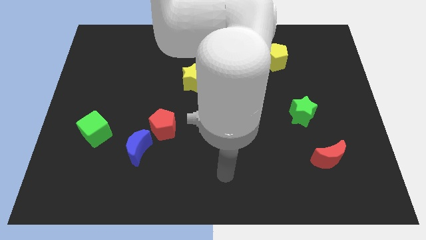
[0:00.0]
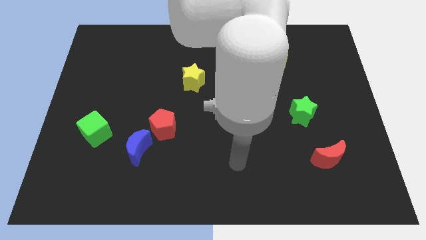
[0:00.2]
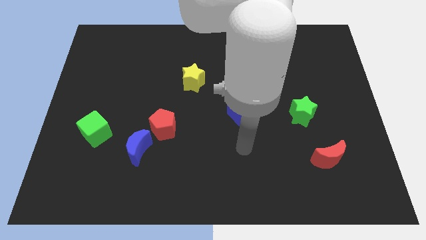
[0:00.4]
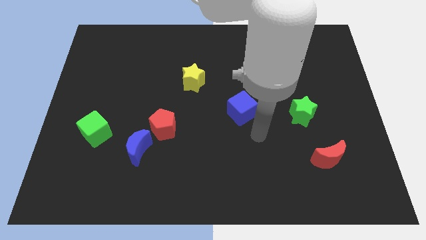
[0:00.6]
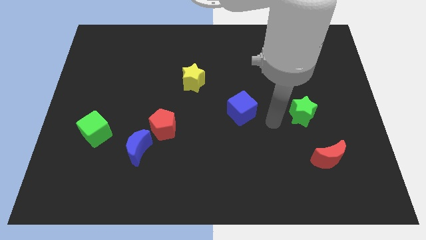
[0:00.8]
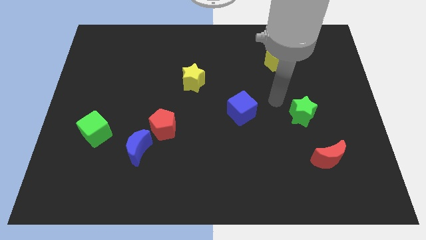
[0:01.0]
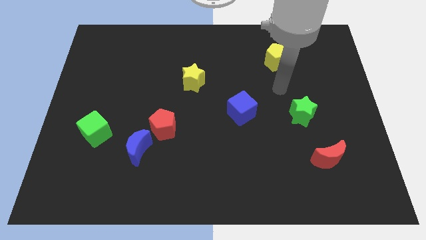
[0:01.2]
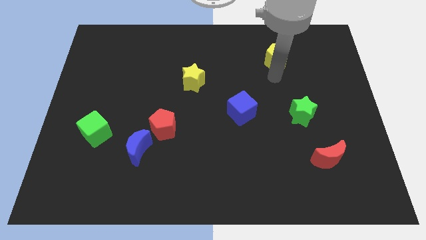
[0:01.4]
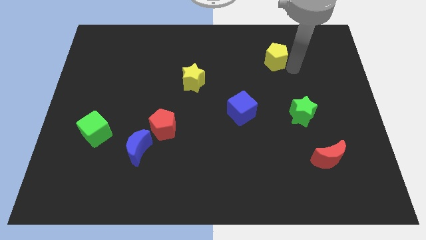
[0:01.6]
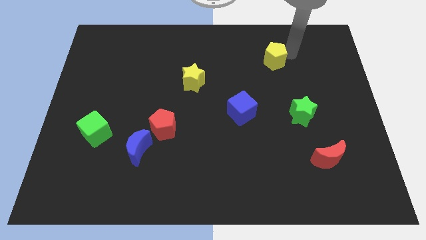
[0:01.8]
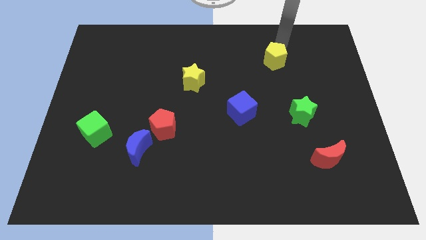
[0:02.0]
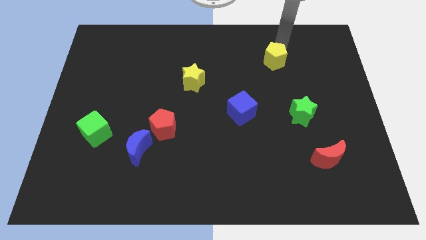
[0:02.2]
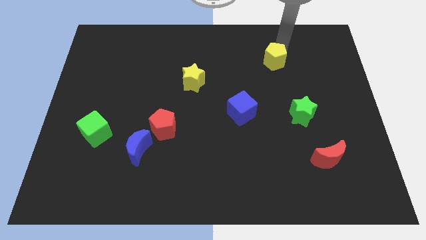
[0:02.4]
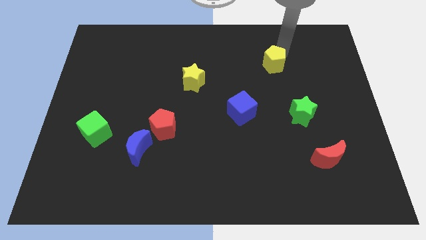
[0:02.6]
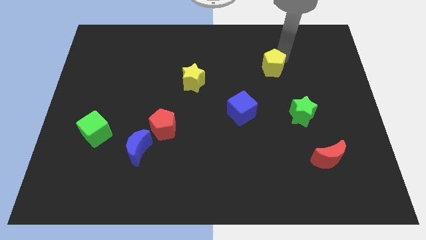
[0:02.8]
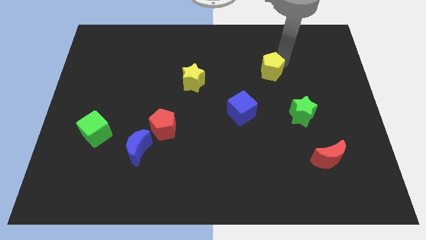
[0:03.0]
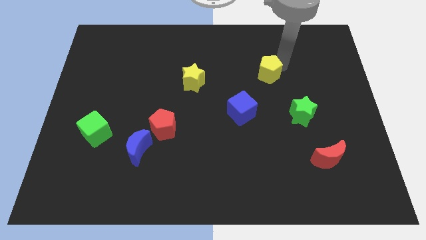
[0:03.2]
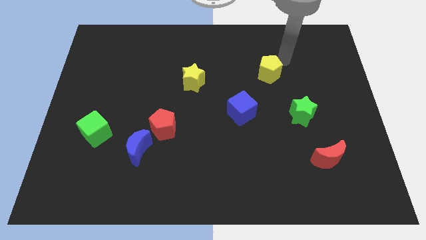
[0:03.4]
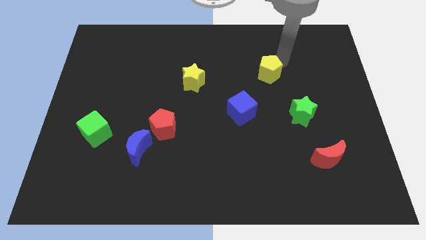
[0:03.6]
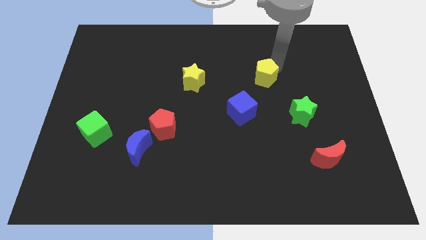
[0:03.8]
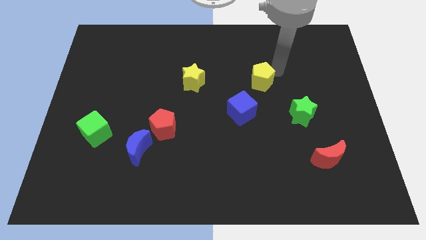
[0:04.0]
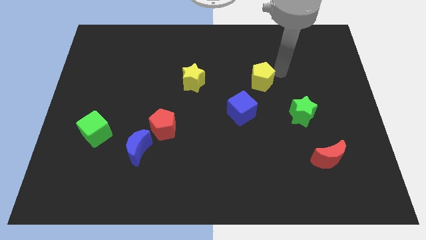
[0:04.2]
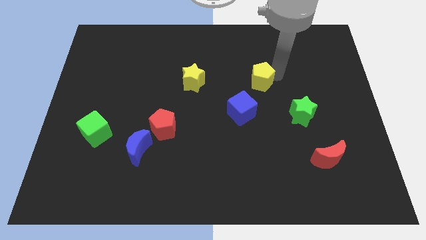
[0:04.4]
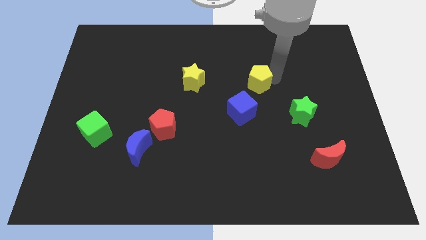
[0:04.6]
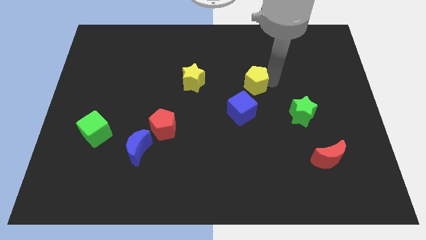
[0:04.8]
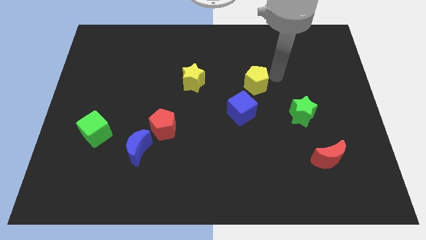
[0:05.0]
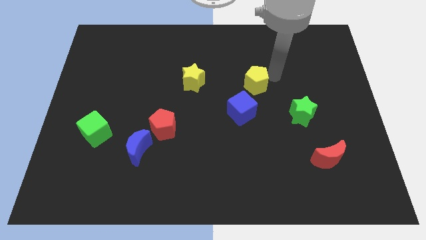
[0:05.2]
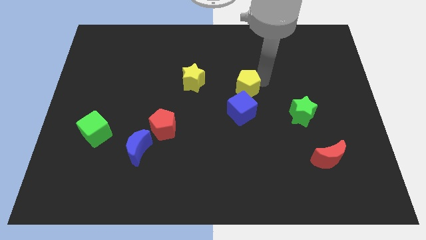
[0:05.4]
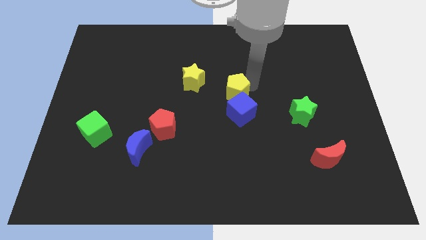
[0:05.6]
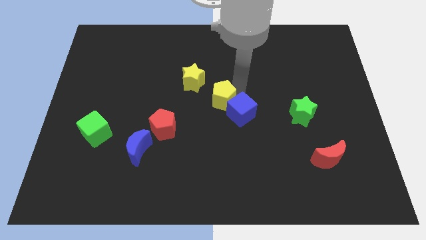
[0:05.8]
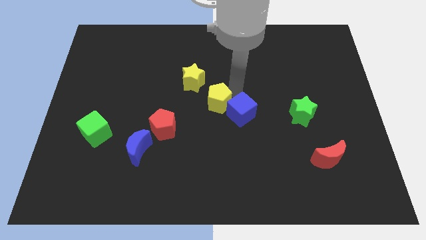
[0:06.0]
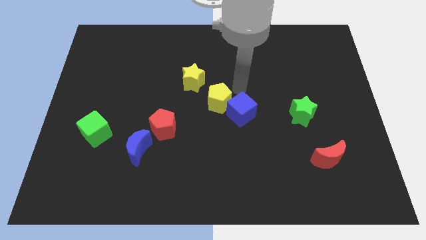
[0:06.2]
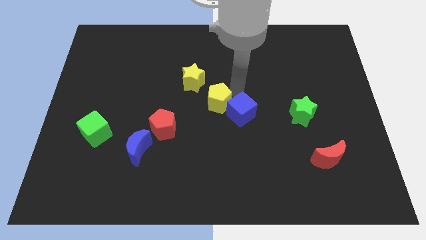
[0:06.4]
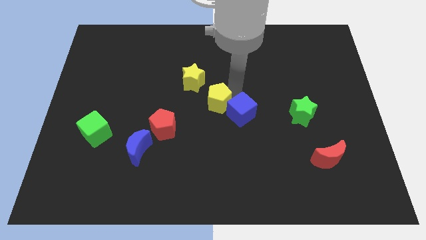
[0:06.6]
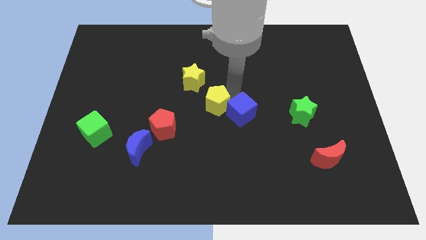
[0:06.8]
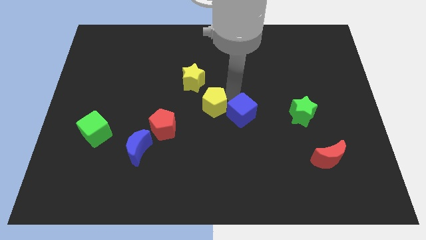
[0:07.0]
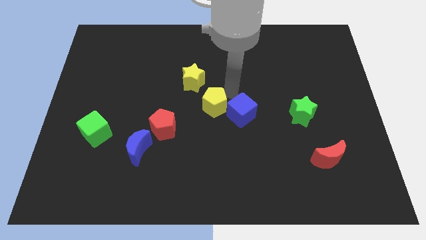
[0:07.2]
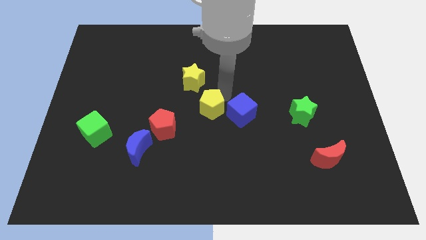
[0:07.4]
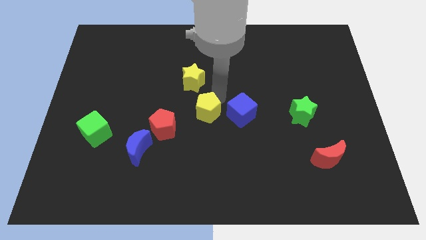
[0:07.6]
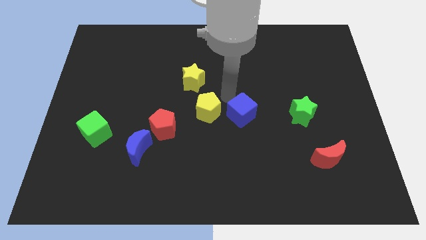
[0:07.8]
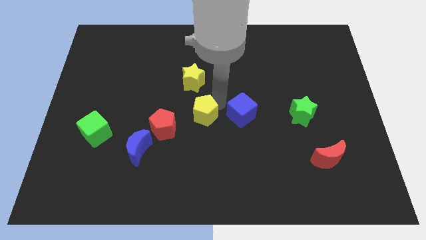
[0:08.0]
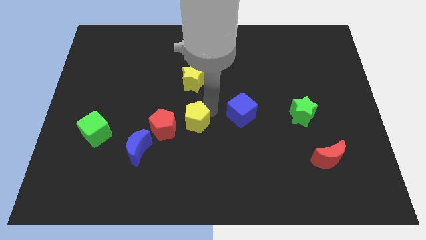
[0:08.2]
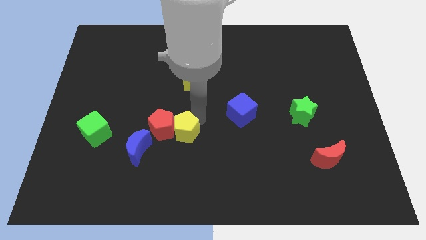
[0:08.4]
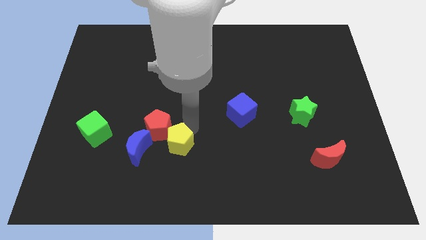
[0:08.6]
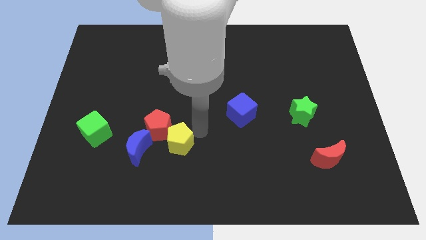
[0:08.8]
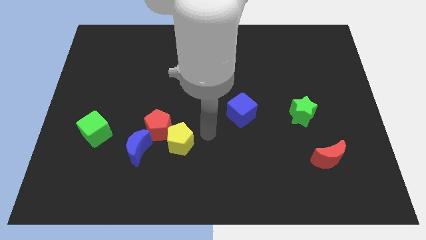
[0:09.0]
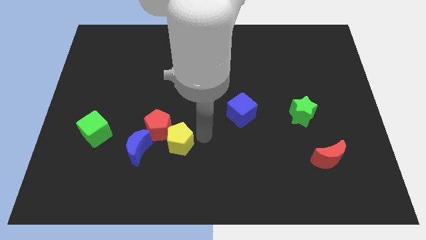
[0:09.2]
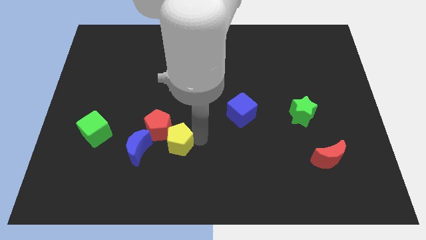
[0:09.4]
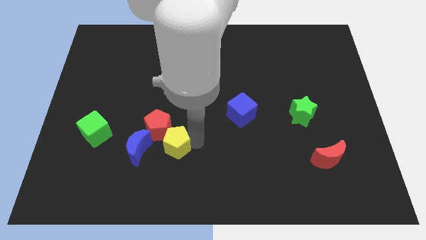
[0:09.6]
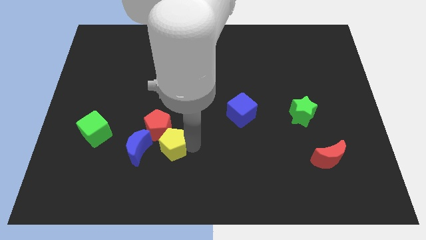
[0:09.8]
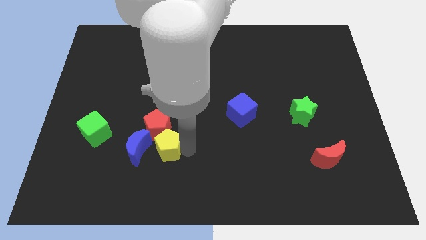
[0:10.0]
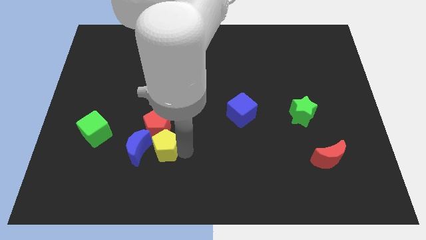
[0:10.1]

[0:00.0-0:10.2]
slide the yellow pentagon close to the blue moon

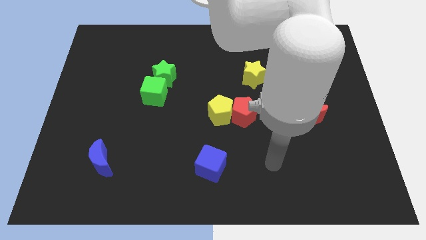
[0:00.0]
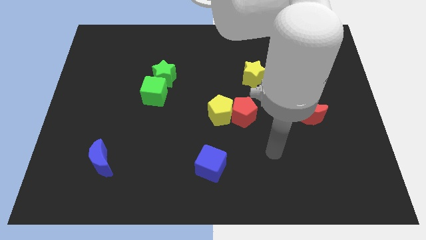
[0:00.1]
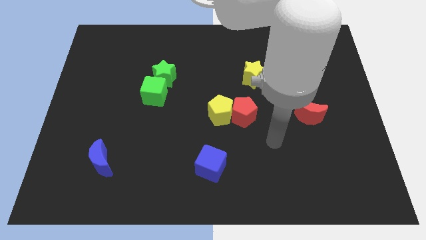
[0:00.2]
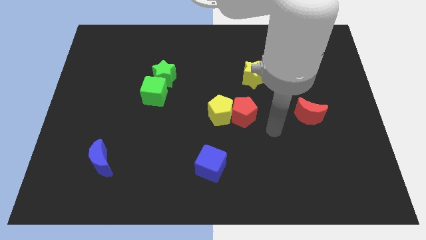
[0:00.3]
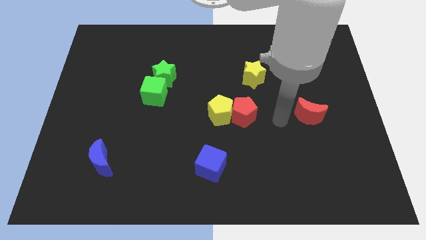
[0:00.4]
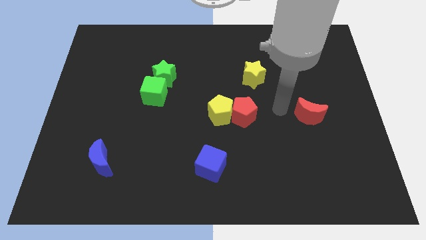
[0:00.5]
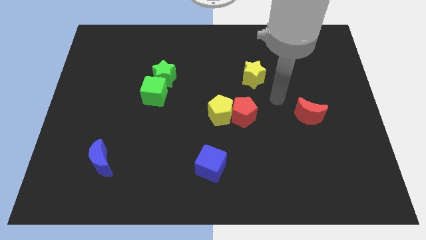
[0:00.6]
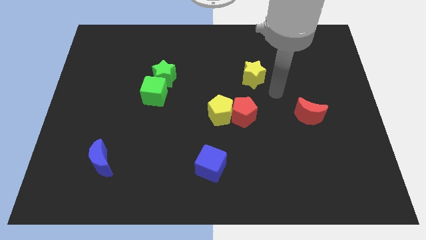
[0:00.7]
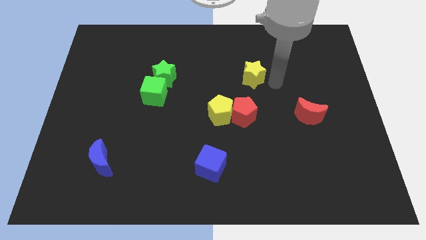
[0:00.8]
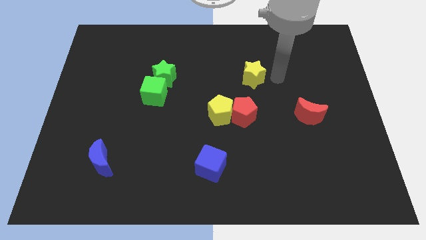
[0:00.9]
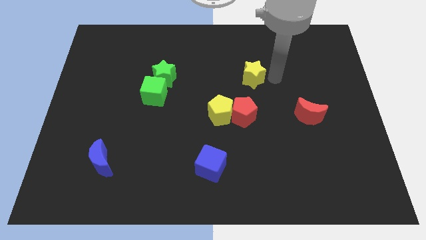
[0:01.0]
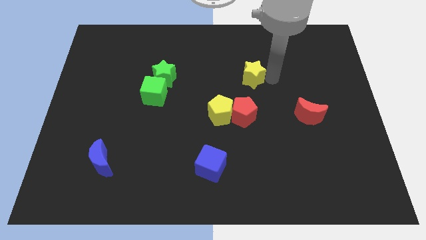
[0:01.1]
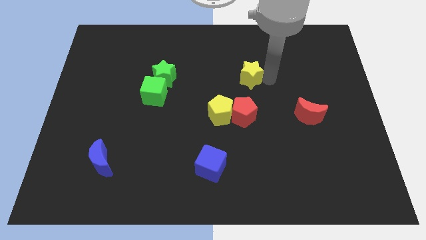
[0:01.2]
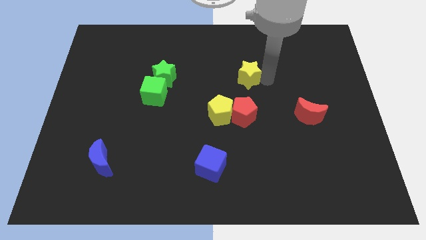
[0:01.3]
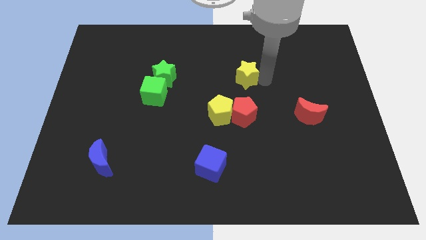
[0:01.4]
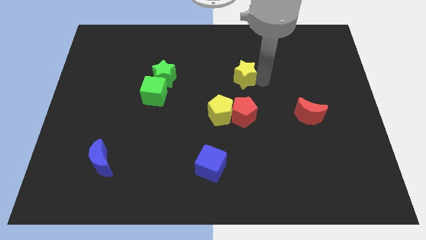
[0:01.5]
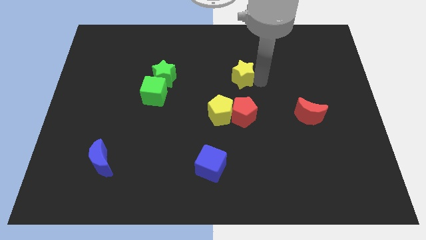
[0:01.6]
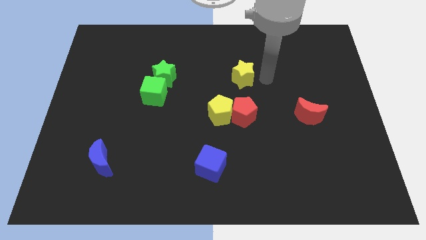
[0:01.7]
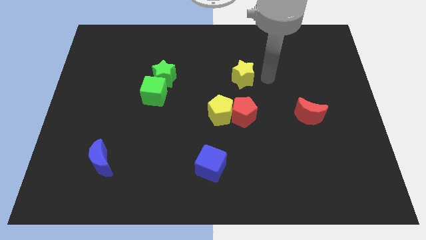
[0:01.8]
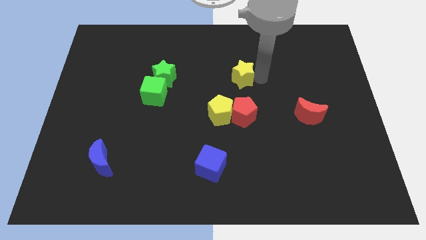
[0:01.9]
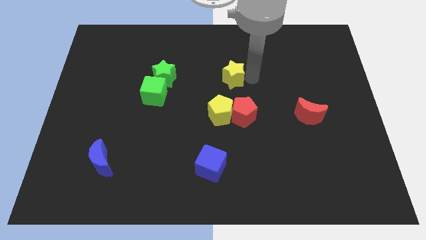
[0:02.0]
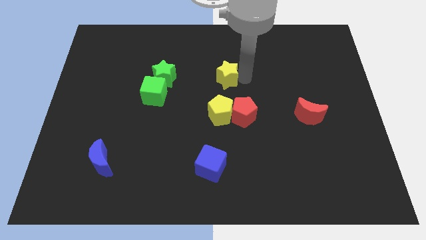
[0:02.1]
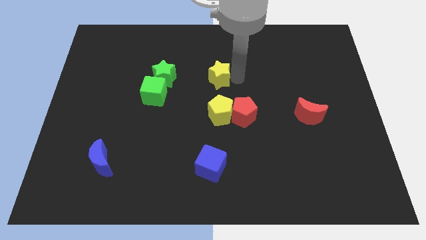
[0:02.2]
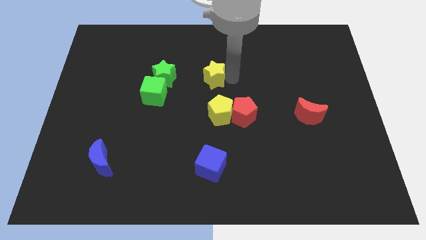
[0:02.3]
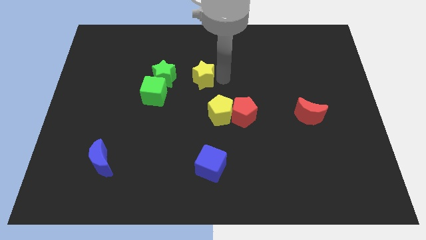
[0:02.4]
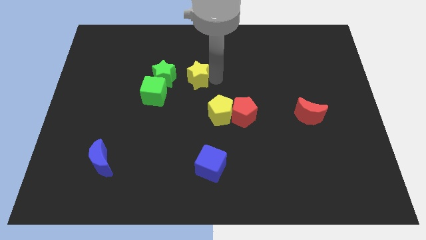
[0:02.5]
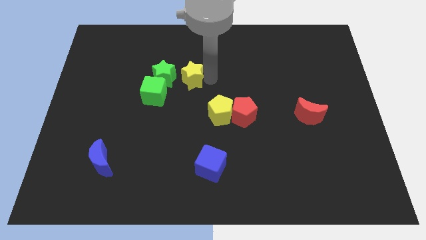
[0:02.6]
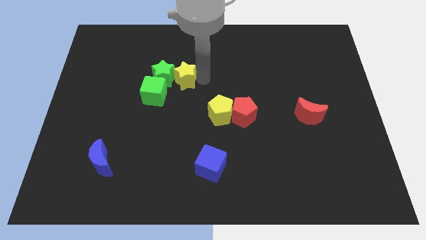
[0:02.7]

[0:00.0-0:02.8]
push the yellow star to the green star
